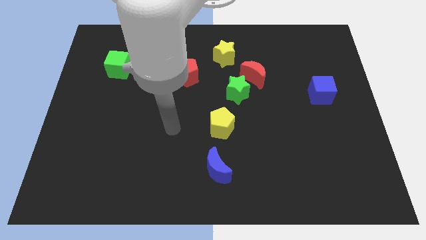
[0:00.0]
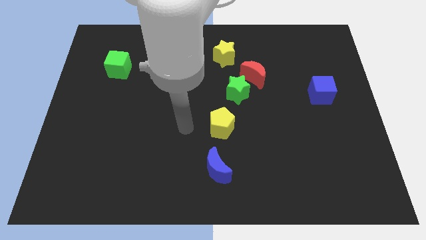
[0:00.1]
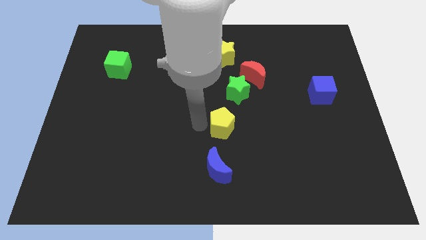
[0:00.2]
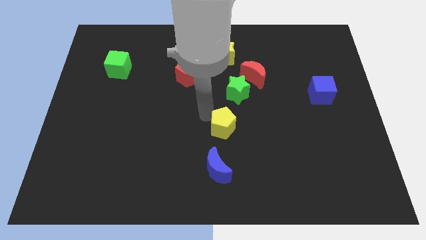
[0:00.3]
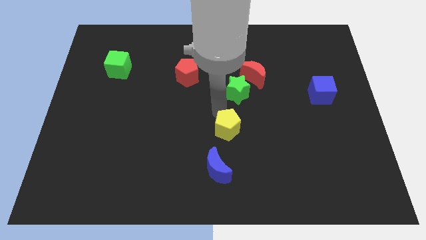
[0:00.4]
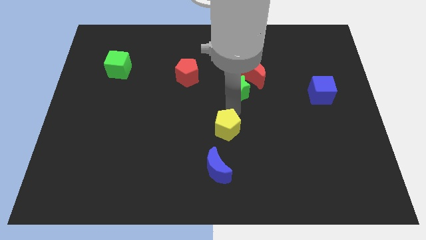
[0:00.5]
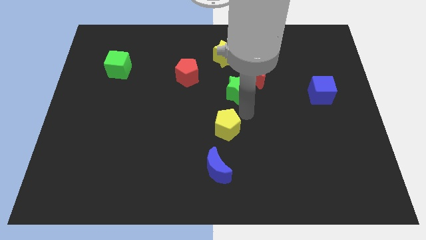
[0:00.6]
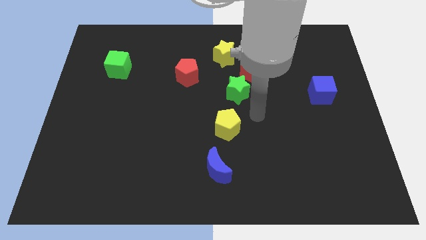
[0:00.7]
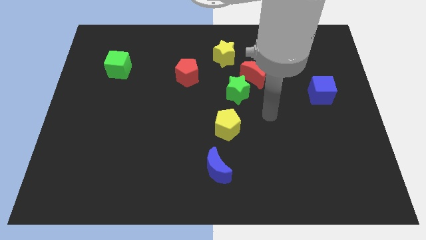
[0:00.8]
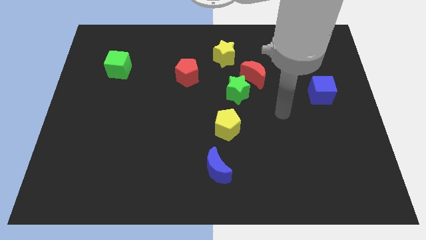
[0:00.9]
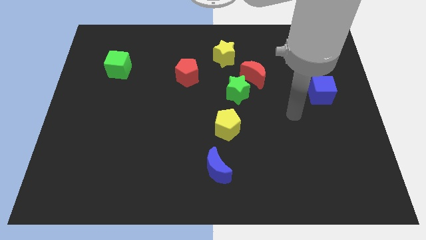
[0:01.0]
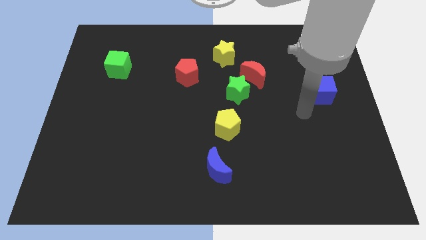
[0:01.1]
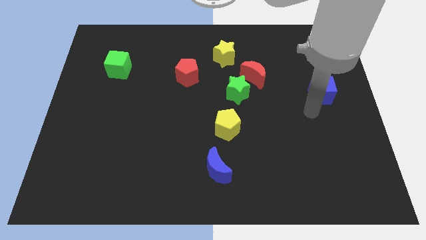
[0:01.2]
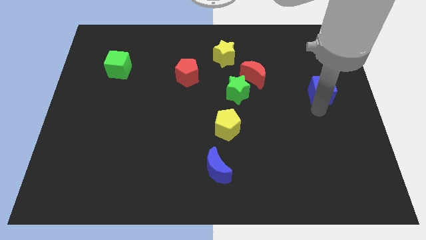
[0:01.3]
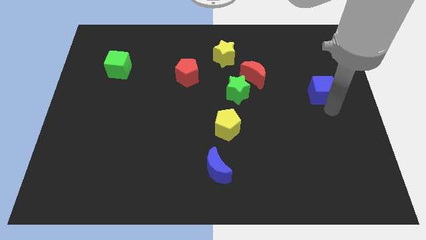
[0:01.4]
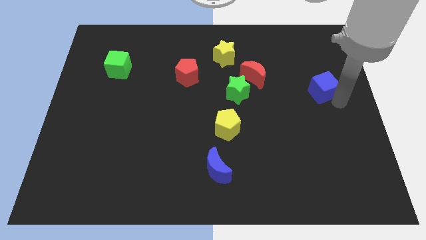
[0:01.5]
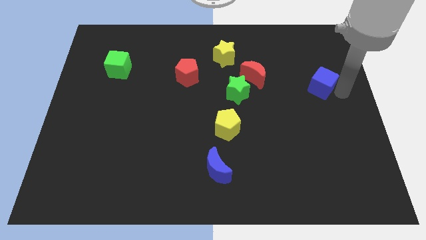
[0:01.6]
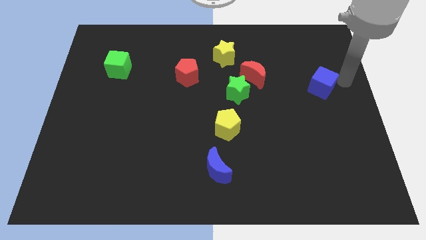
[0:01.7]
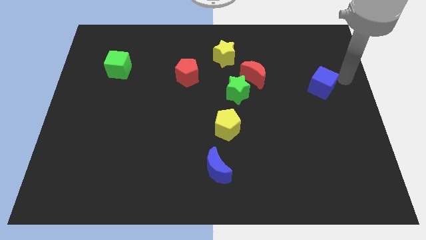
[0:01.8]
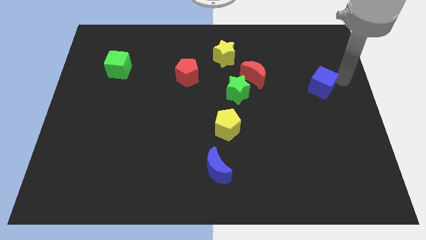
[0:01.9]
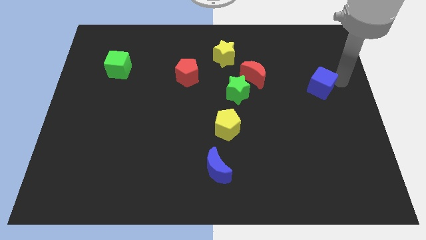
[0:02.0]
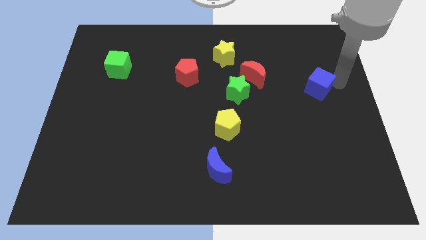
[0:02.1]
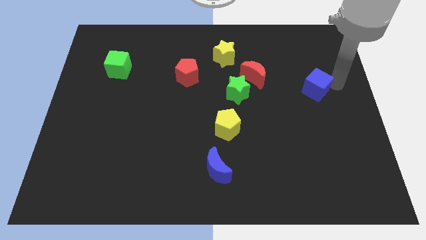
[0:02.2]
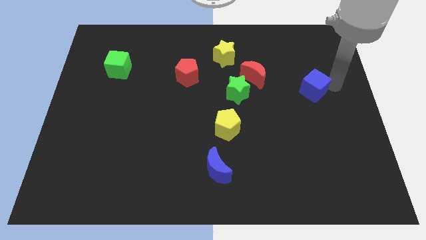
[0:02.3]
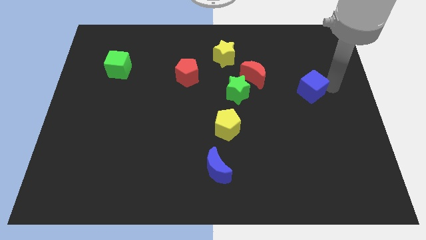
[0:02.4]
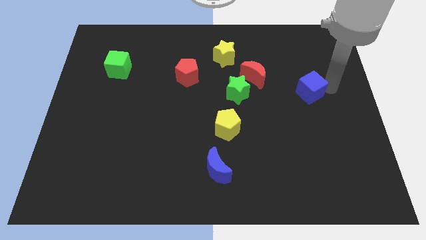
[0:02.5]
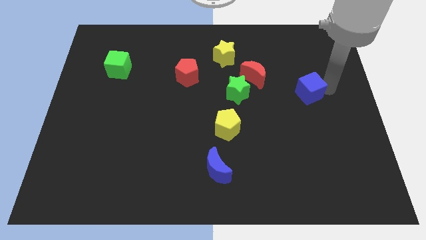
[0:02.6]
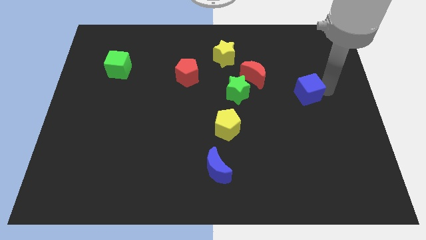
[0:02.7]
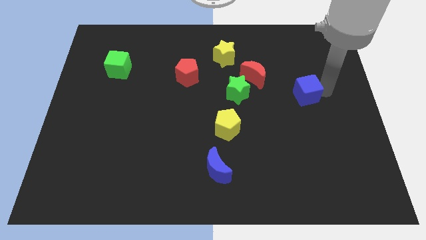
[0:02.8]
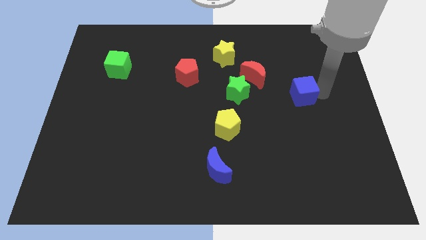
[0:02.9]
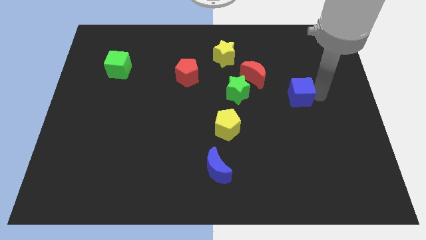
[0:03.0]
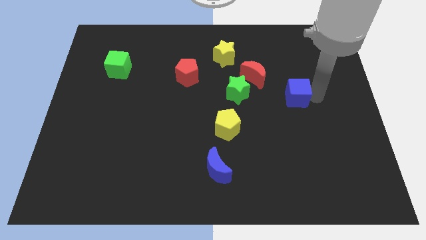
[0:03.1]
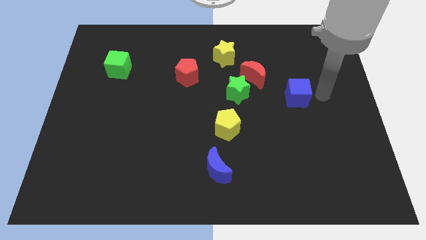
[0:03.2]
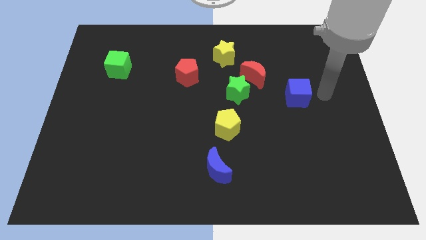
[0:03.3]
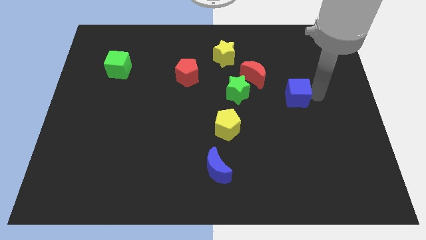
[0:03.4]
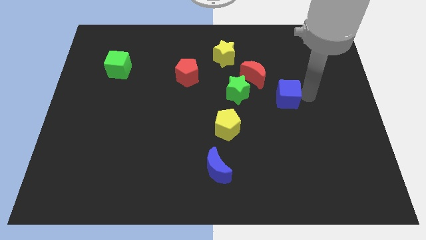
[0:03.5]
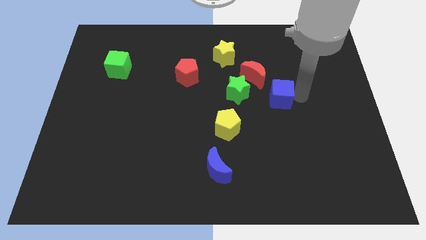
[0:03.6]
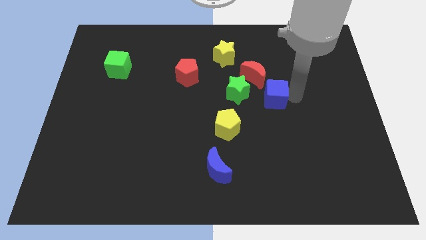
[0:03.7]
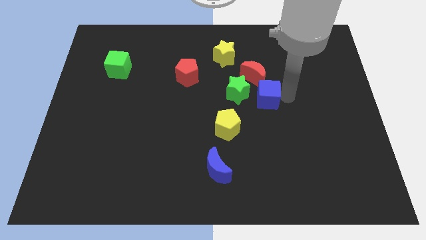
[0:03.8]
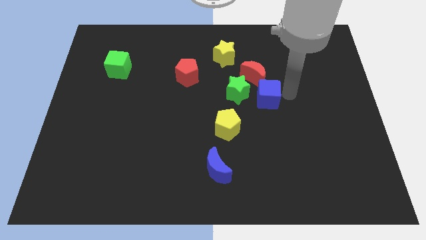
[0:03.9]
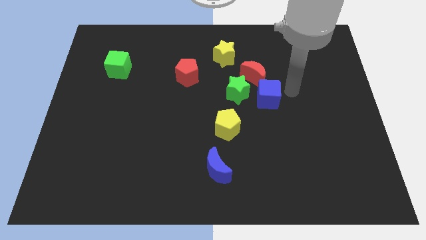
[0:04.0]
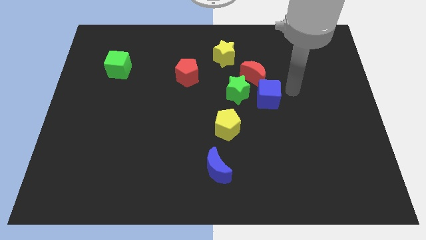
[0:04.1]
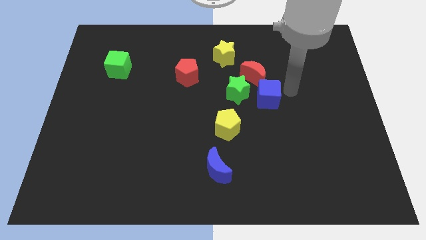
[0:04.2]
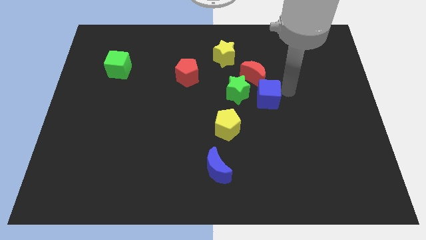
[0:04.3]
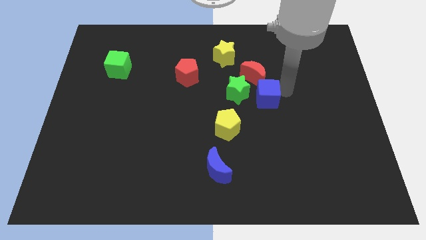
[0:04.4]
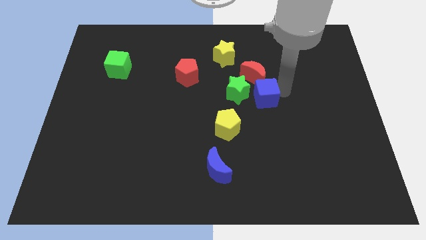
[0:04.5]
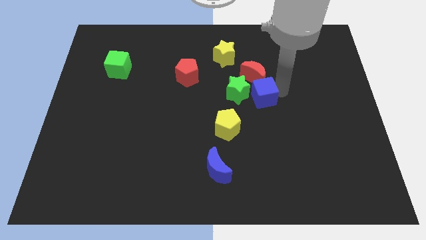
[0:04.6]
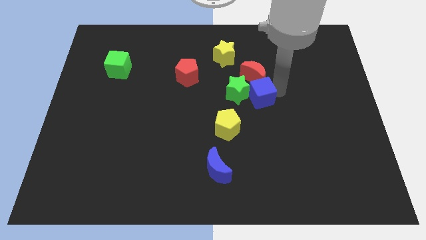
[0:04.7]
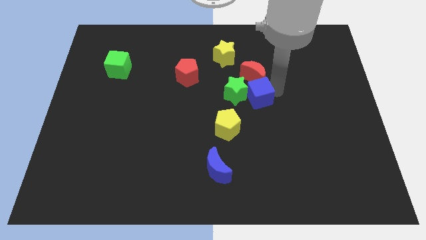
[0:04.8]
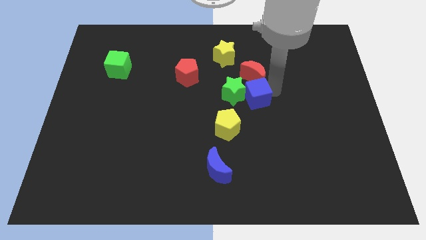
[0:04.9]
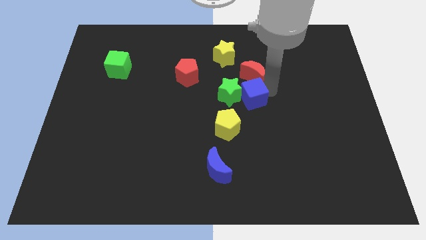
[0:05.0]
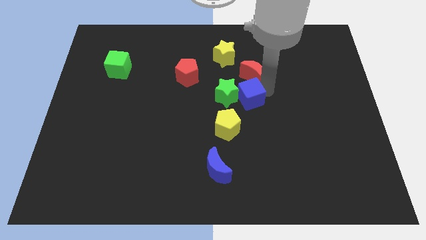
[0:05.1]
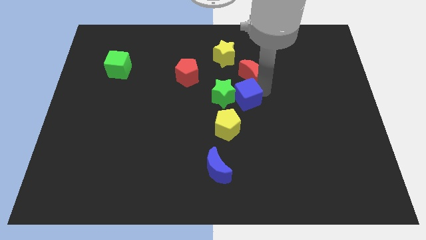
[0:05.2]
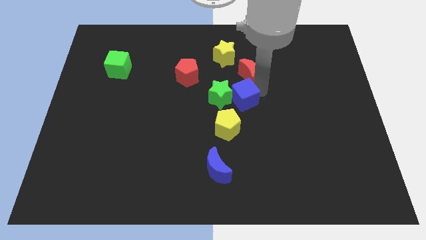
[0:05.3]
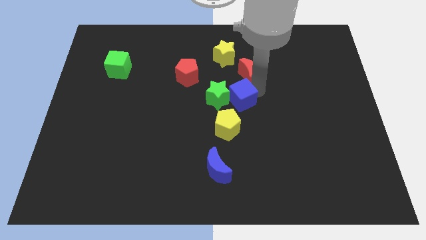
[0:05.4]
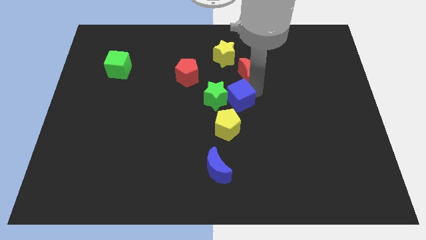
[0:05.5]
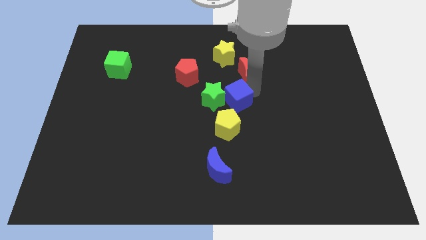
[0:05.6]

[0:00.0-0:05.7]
move the blue cube to the left

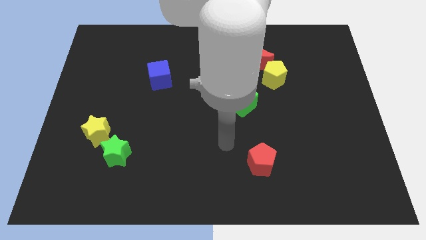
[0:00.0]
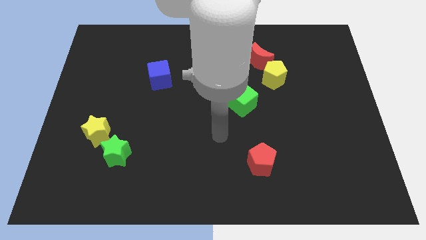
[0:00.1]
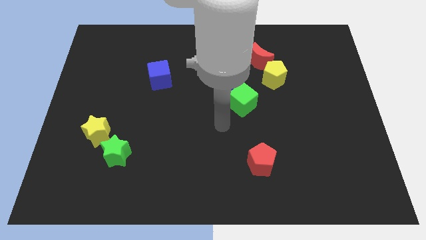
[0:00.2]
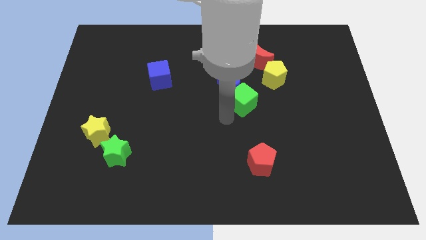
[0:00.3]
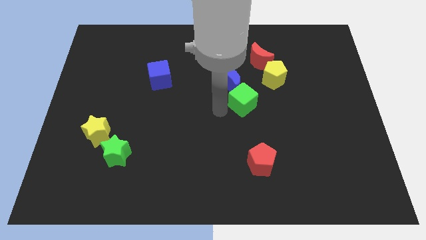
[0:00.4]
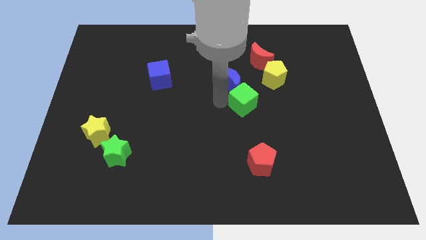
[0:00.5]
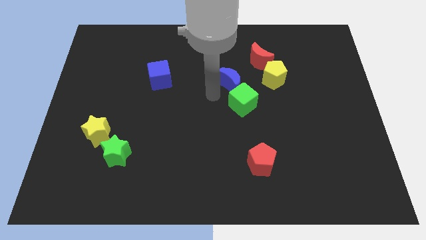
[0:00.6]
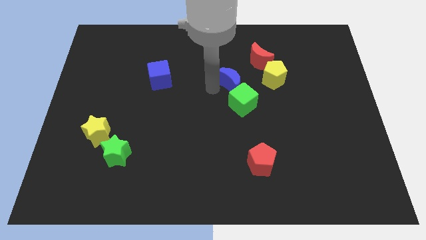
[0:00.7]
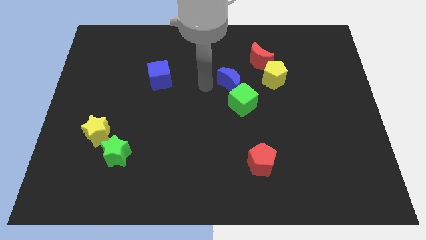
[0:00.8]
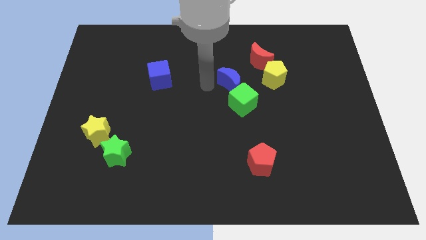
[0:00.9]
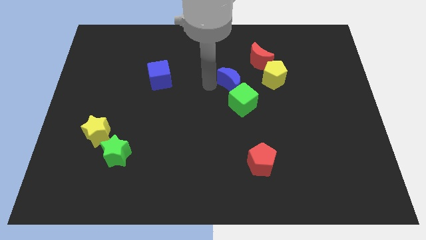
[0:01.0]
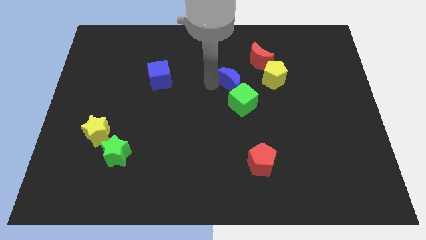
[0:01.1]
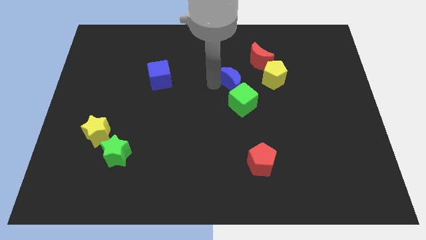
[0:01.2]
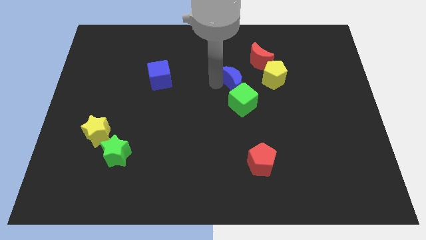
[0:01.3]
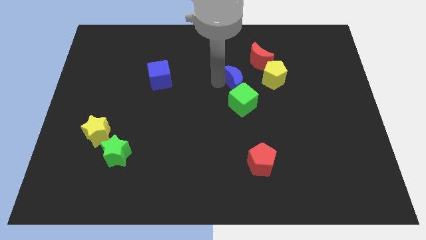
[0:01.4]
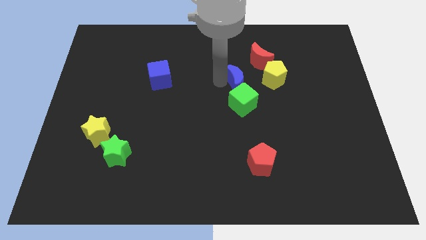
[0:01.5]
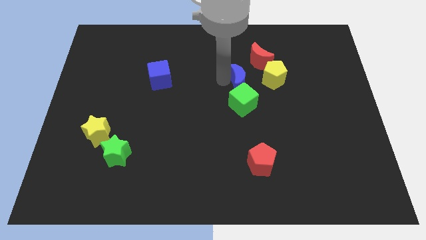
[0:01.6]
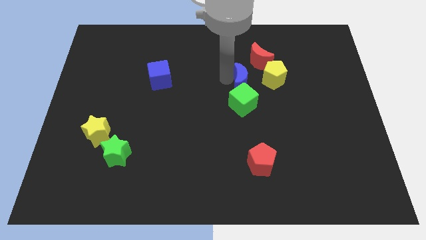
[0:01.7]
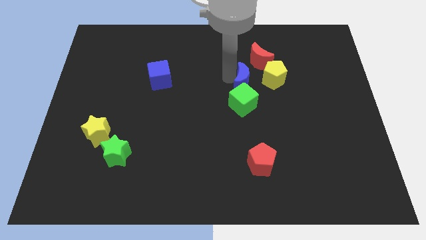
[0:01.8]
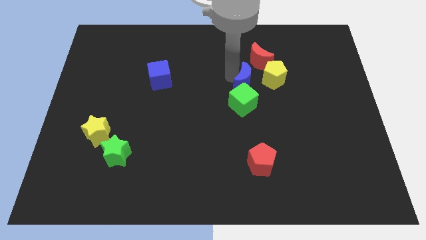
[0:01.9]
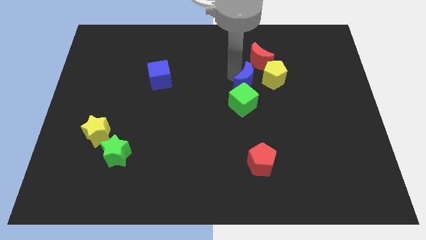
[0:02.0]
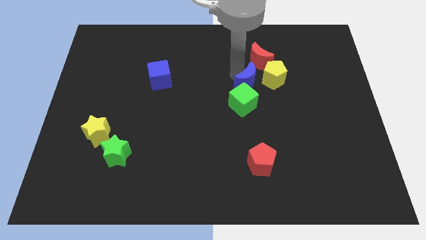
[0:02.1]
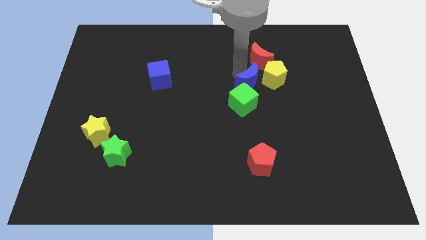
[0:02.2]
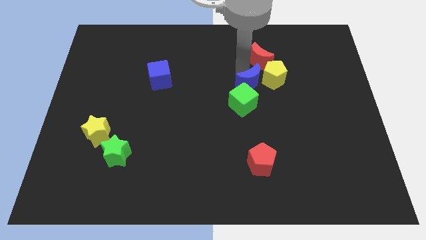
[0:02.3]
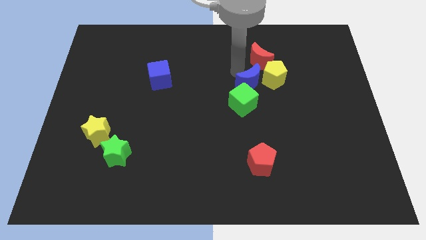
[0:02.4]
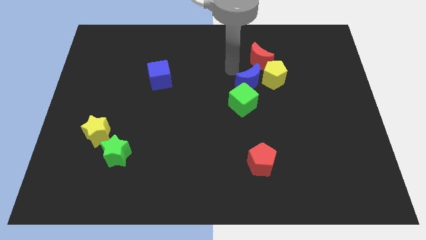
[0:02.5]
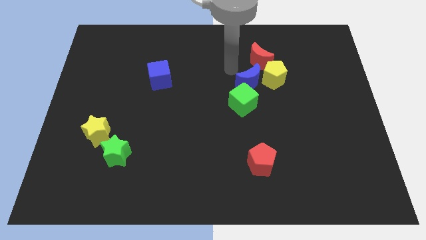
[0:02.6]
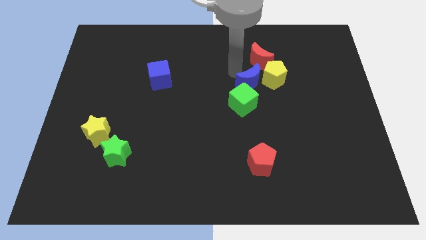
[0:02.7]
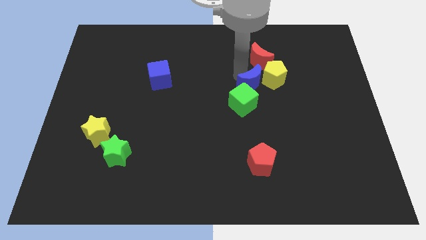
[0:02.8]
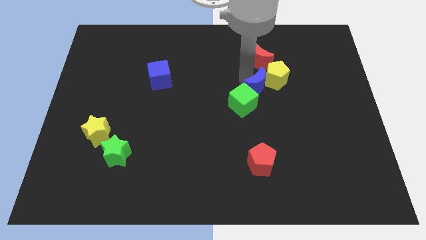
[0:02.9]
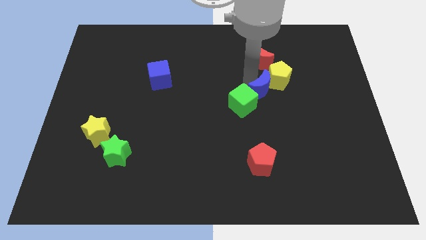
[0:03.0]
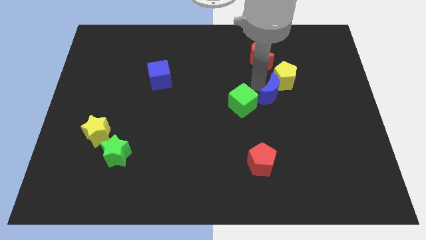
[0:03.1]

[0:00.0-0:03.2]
slide the blue moon slightly downwards and then to the right
